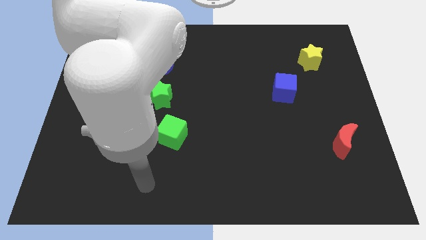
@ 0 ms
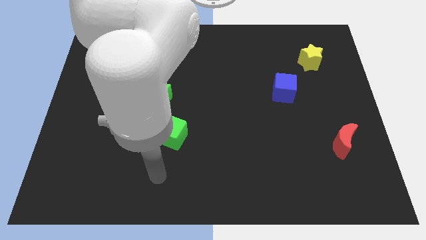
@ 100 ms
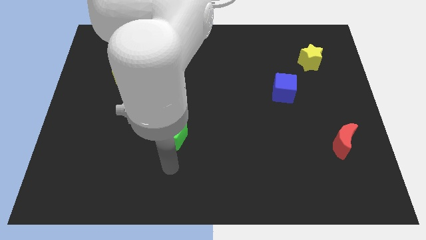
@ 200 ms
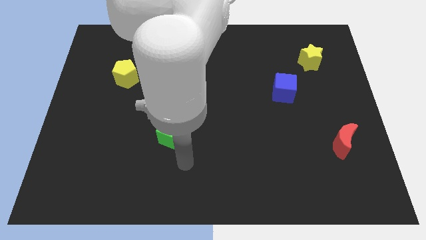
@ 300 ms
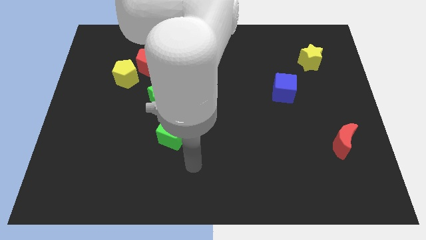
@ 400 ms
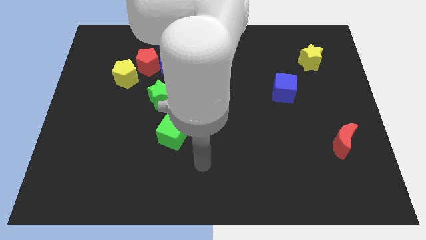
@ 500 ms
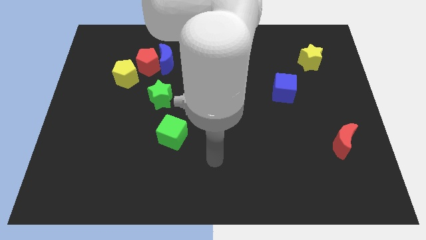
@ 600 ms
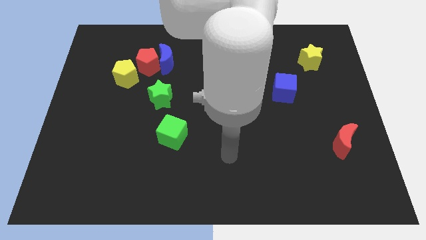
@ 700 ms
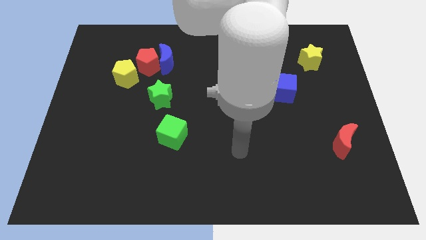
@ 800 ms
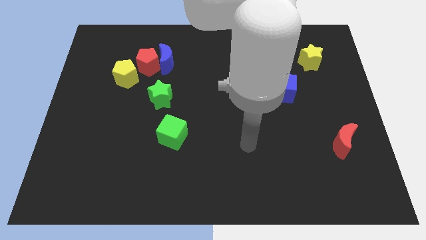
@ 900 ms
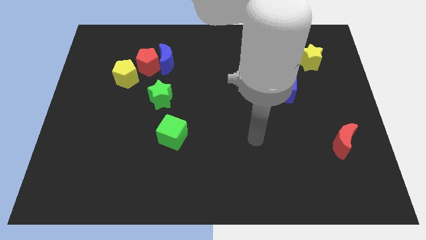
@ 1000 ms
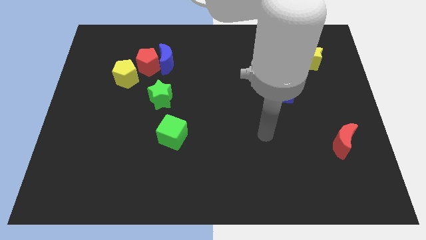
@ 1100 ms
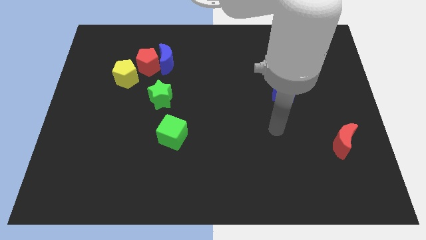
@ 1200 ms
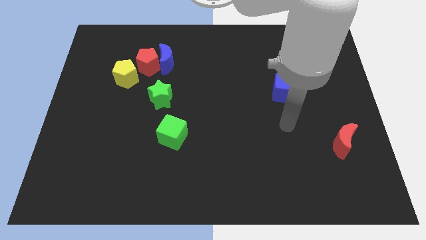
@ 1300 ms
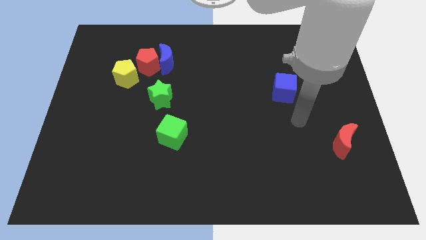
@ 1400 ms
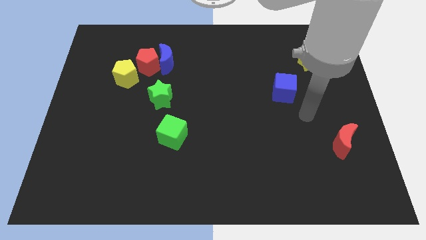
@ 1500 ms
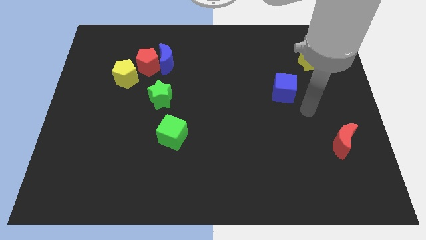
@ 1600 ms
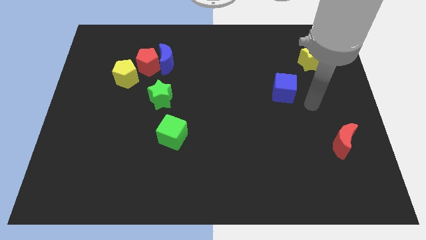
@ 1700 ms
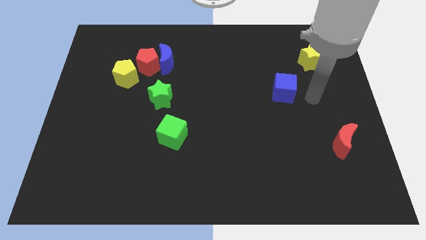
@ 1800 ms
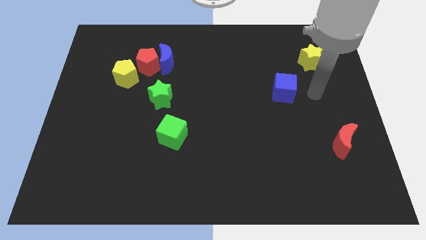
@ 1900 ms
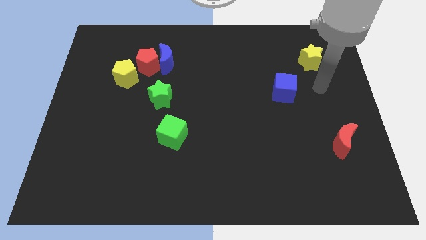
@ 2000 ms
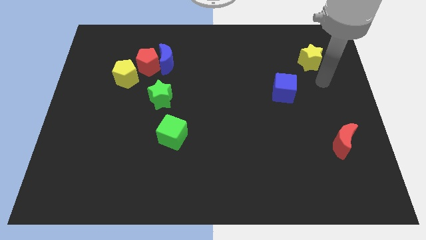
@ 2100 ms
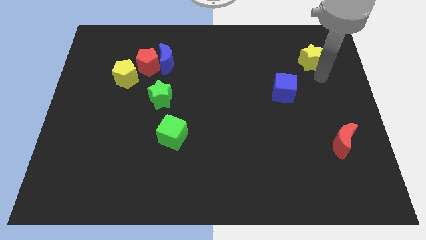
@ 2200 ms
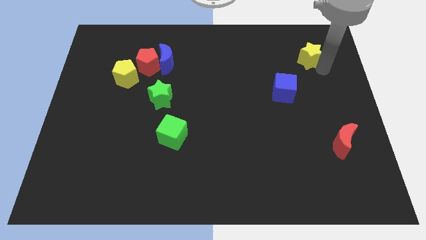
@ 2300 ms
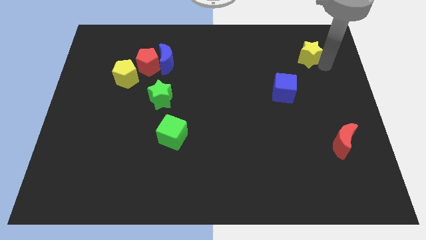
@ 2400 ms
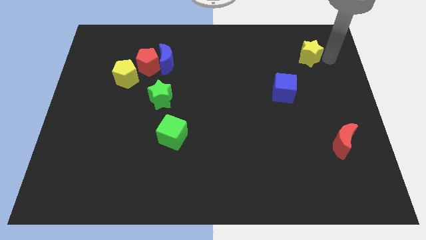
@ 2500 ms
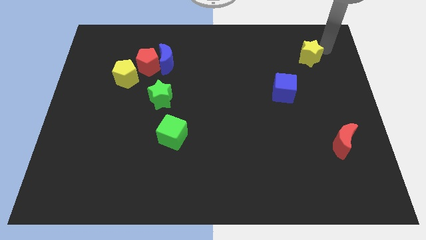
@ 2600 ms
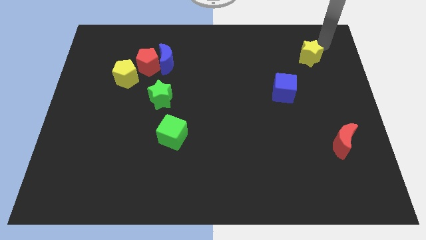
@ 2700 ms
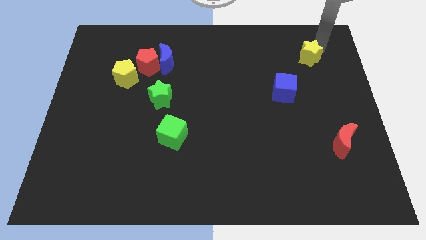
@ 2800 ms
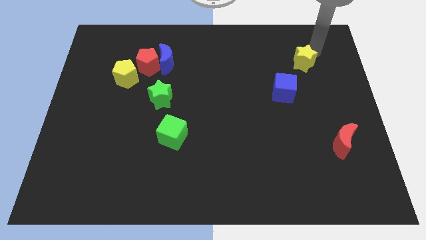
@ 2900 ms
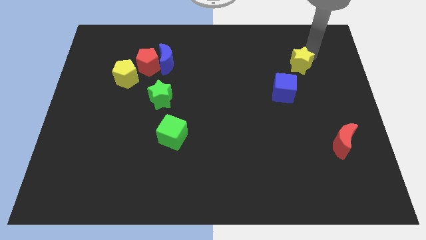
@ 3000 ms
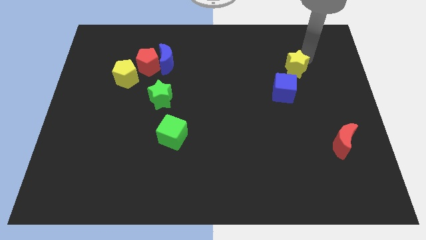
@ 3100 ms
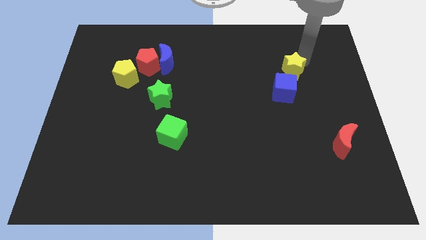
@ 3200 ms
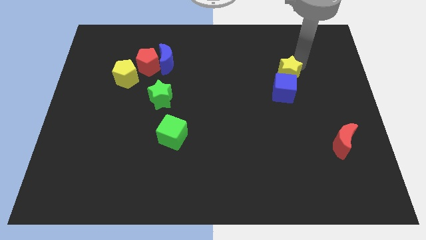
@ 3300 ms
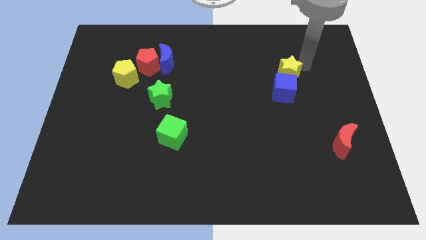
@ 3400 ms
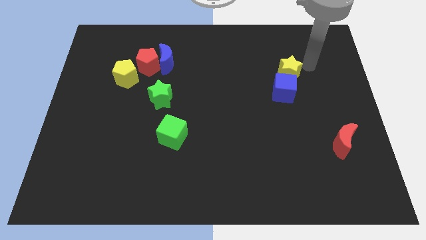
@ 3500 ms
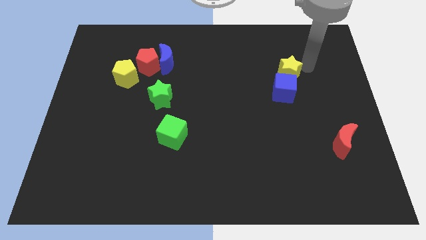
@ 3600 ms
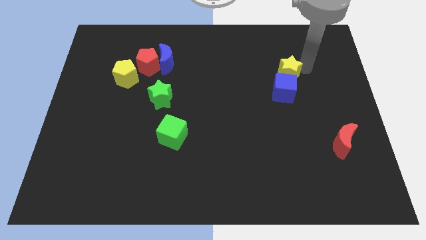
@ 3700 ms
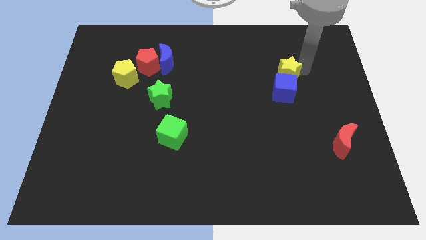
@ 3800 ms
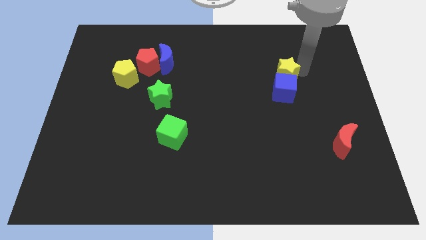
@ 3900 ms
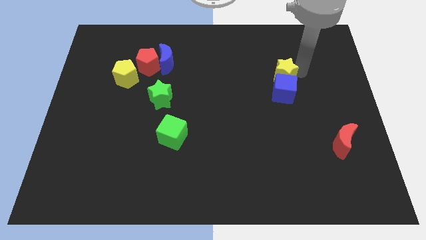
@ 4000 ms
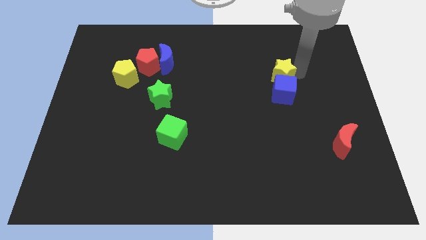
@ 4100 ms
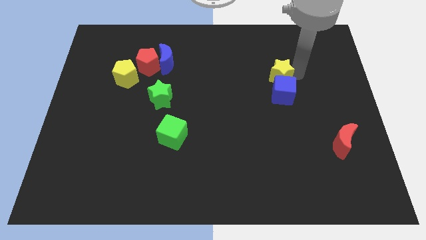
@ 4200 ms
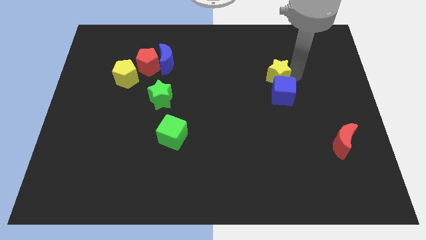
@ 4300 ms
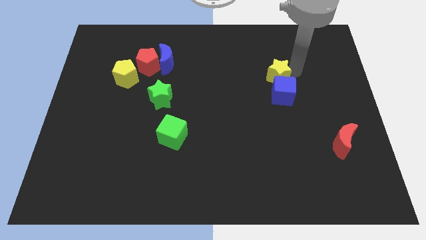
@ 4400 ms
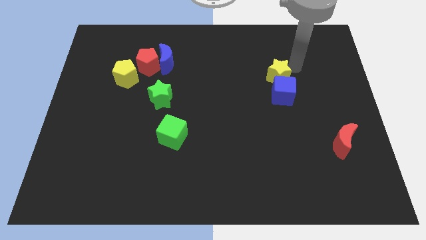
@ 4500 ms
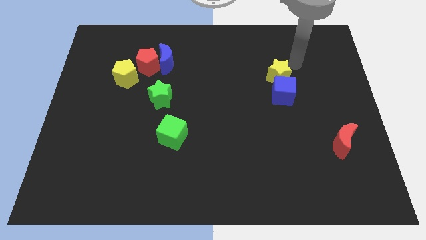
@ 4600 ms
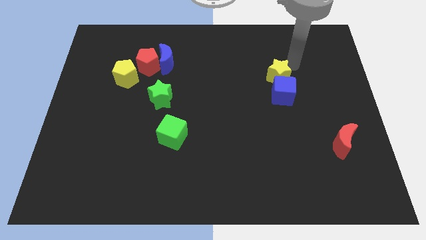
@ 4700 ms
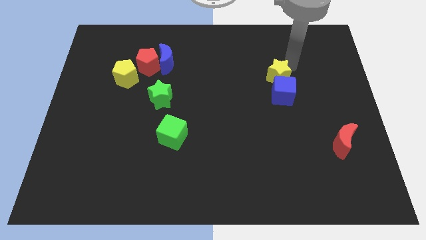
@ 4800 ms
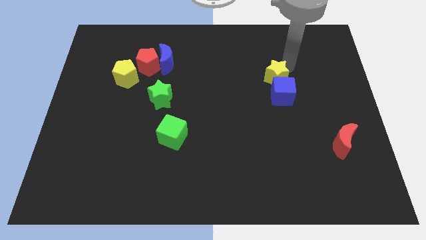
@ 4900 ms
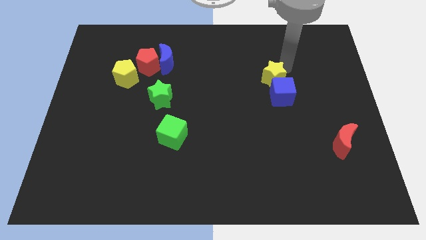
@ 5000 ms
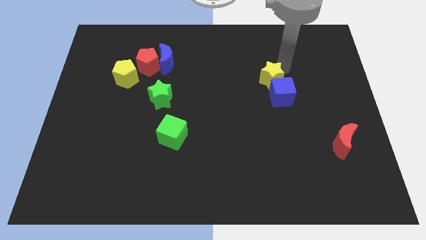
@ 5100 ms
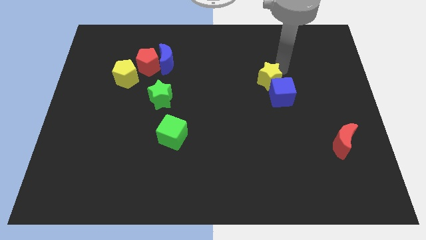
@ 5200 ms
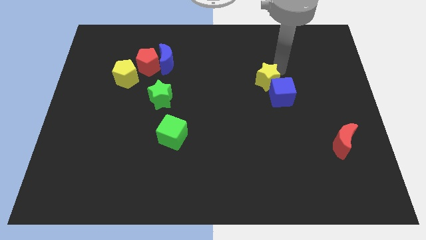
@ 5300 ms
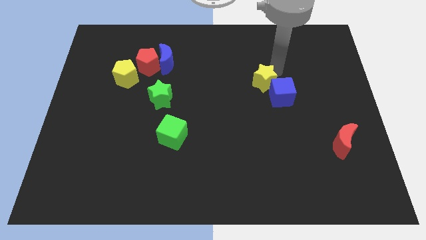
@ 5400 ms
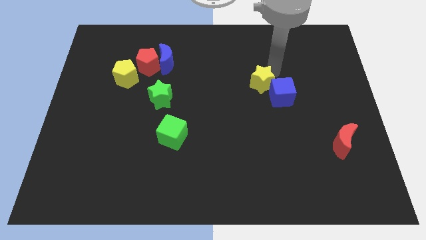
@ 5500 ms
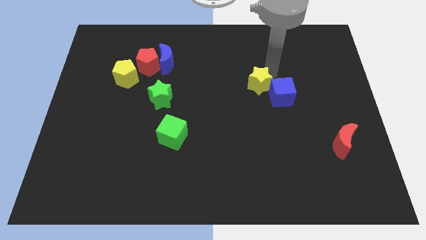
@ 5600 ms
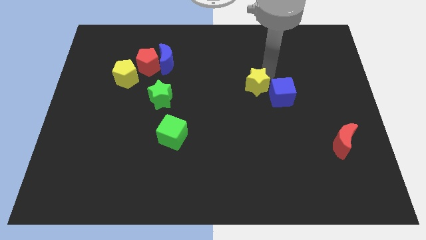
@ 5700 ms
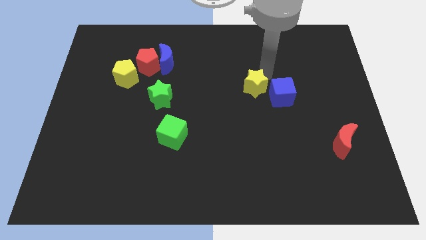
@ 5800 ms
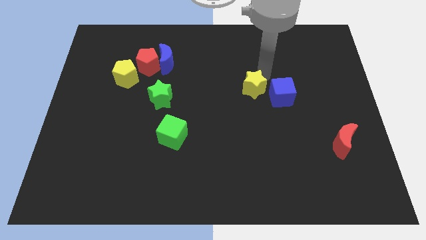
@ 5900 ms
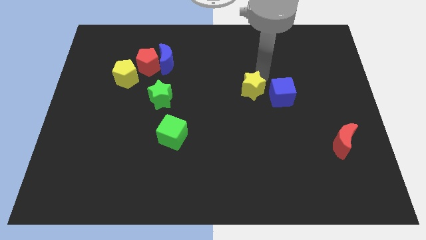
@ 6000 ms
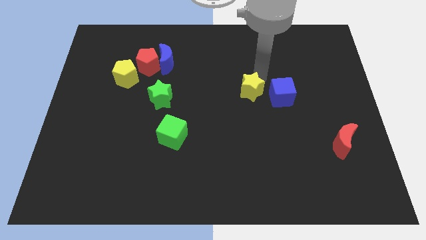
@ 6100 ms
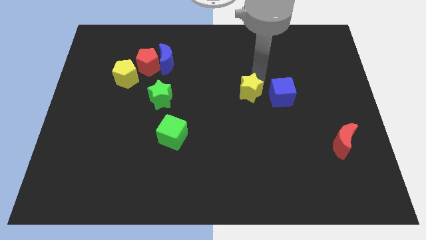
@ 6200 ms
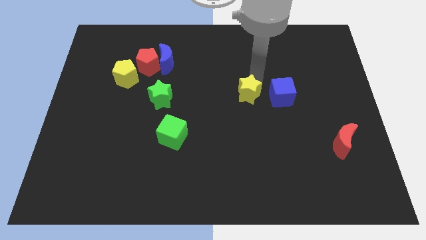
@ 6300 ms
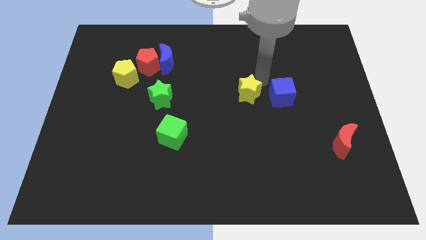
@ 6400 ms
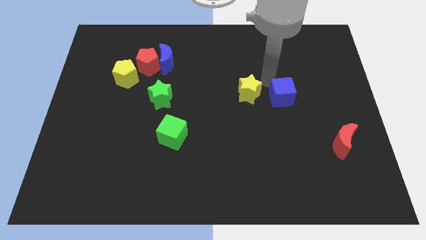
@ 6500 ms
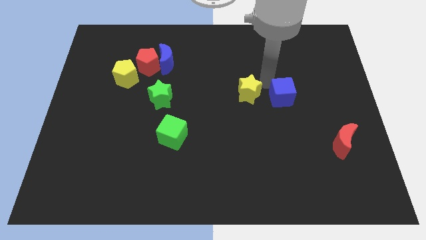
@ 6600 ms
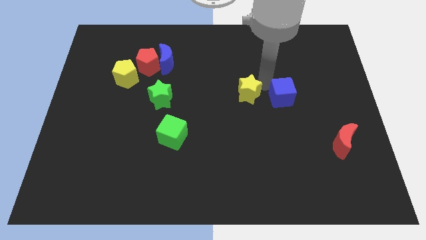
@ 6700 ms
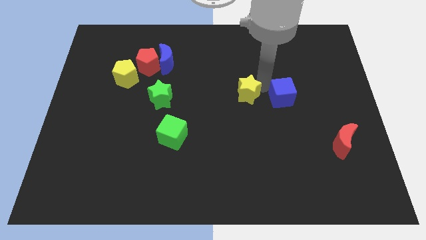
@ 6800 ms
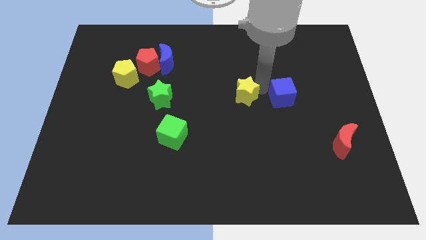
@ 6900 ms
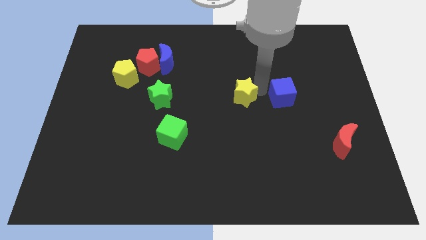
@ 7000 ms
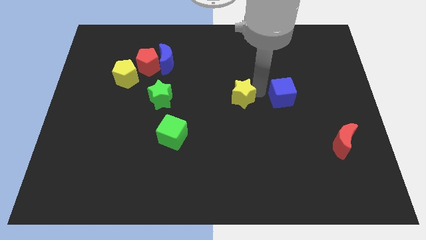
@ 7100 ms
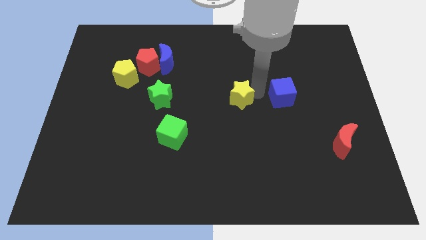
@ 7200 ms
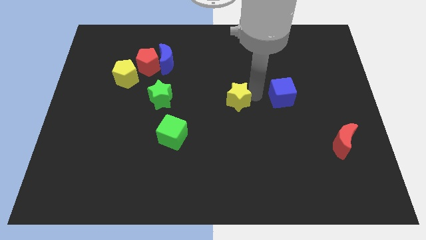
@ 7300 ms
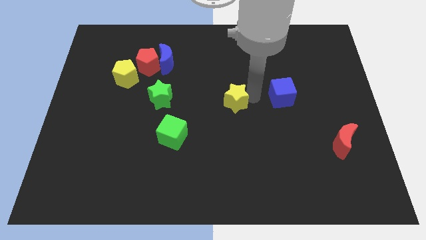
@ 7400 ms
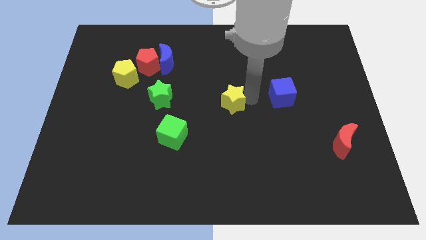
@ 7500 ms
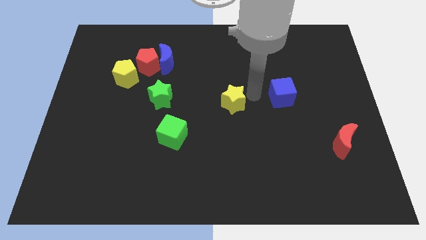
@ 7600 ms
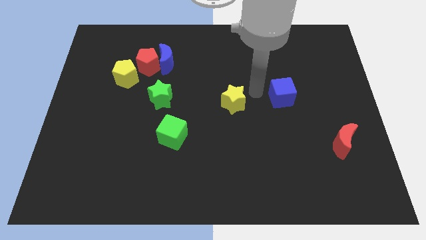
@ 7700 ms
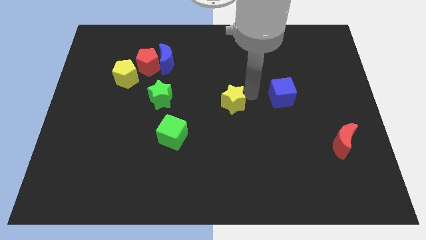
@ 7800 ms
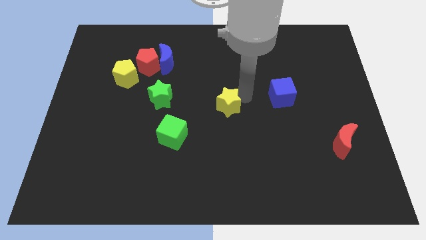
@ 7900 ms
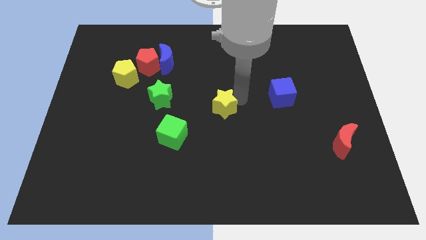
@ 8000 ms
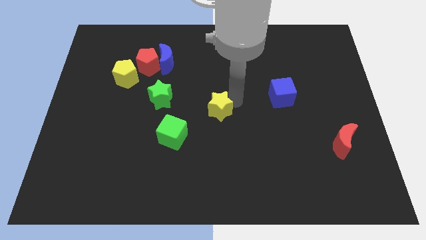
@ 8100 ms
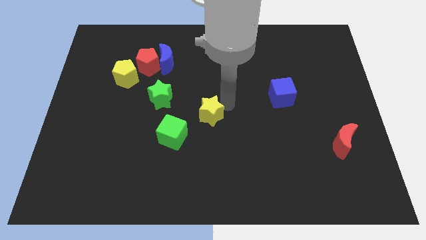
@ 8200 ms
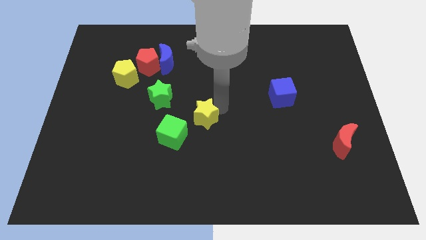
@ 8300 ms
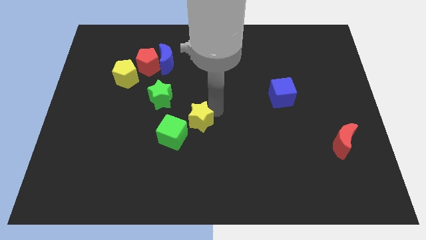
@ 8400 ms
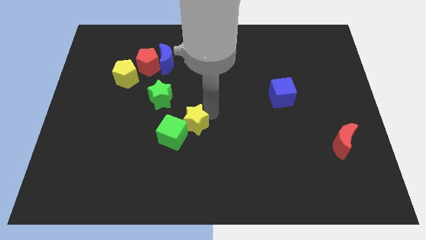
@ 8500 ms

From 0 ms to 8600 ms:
put the yellow star close to the green cube
